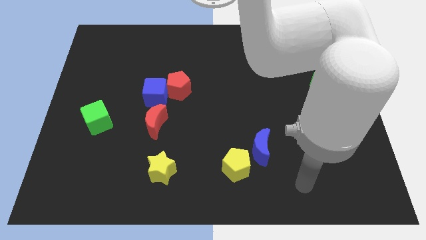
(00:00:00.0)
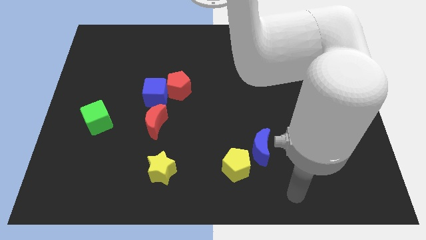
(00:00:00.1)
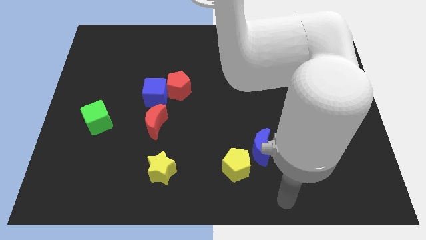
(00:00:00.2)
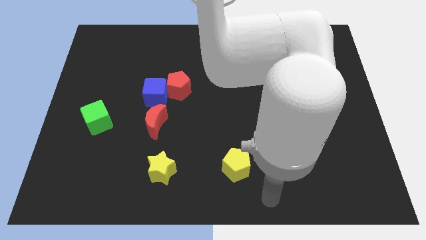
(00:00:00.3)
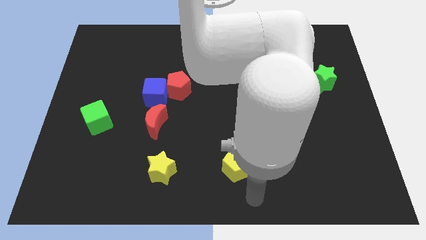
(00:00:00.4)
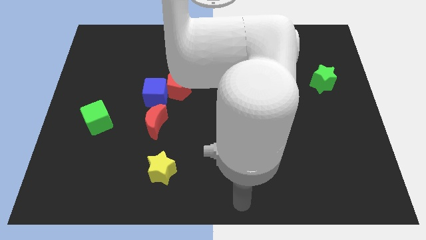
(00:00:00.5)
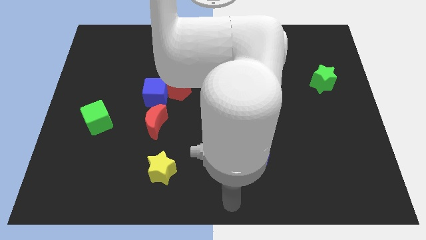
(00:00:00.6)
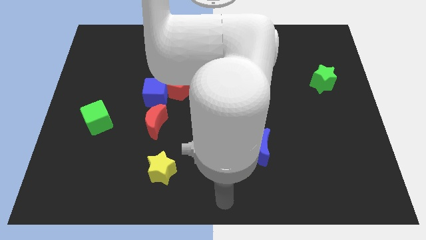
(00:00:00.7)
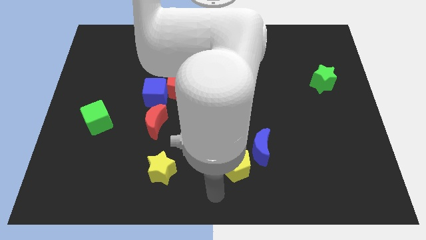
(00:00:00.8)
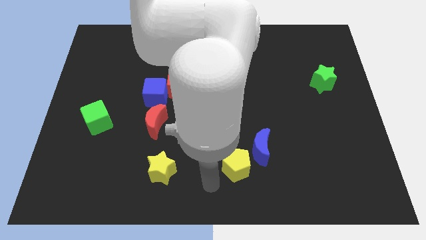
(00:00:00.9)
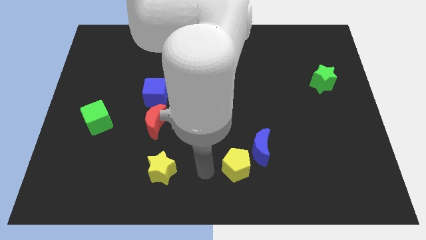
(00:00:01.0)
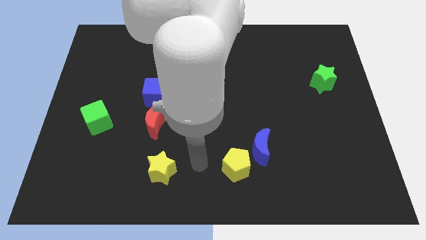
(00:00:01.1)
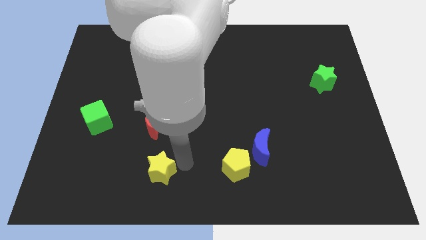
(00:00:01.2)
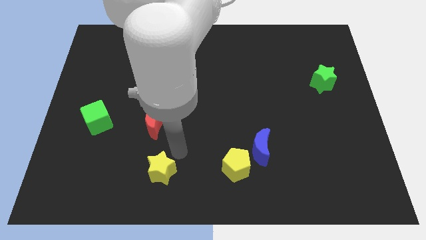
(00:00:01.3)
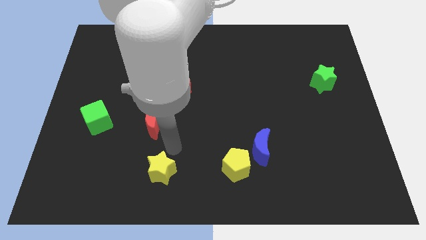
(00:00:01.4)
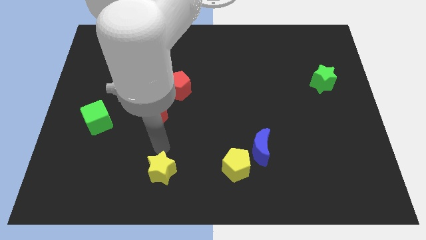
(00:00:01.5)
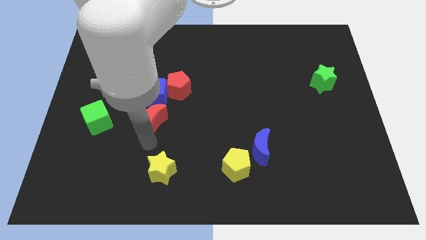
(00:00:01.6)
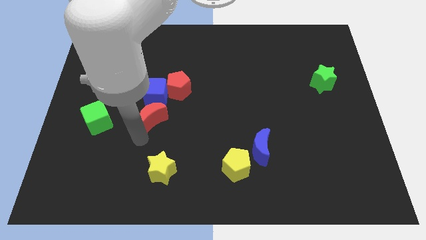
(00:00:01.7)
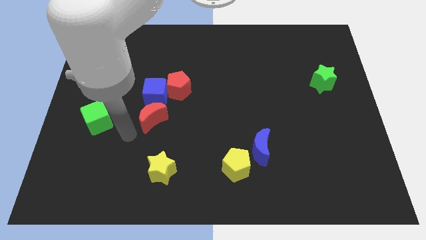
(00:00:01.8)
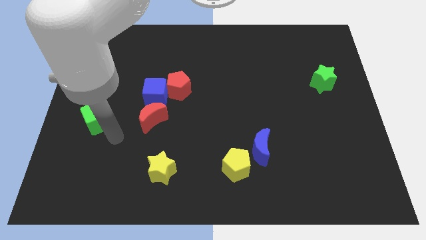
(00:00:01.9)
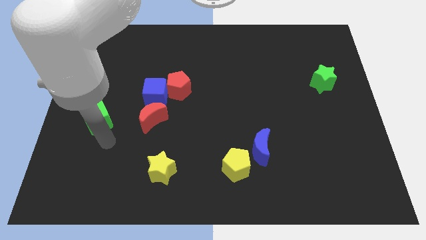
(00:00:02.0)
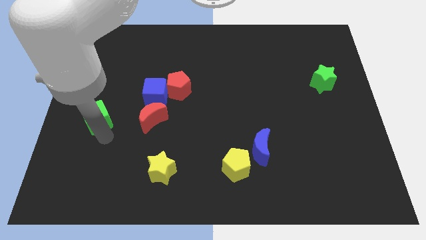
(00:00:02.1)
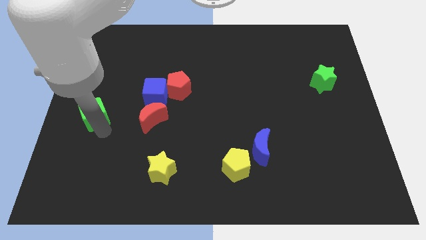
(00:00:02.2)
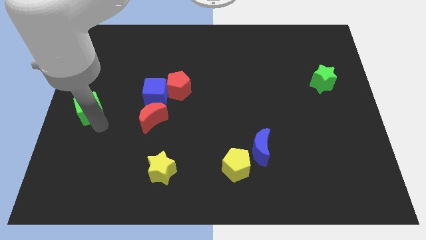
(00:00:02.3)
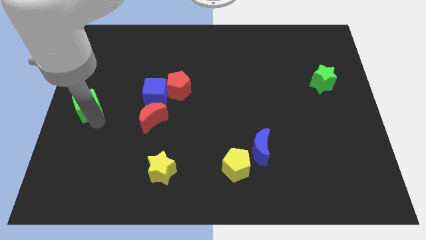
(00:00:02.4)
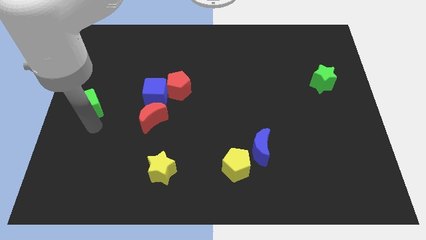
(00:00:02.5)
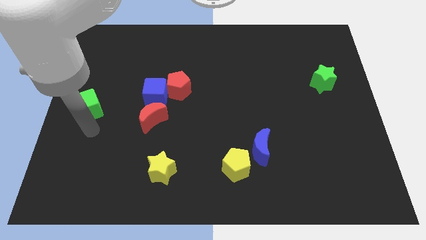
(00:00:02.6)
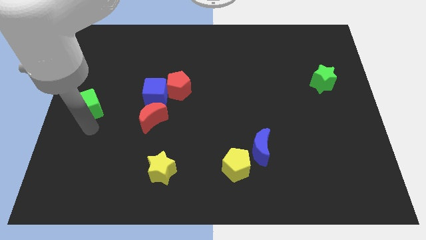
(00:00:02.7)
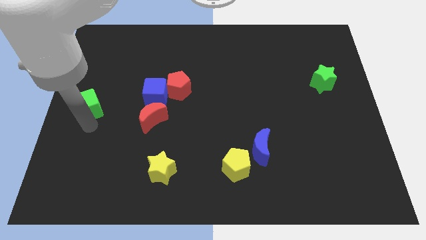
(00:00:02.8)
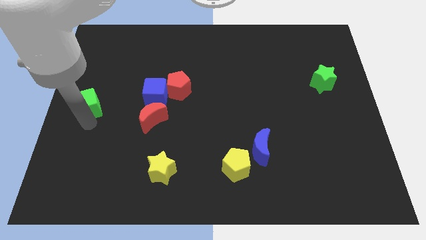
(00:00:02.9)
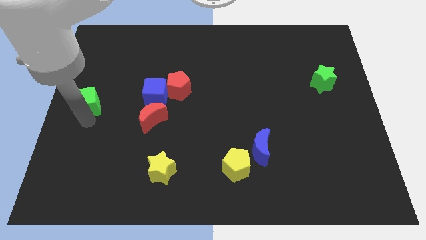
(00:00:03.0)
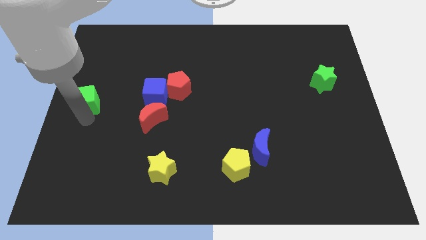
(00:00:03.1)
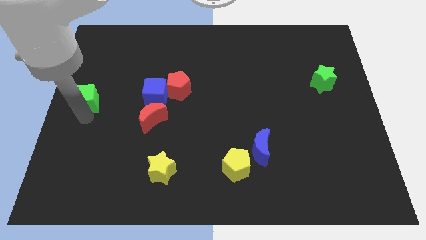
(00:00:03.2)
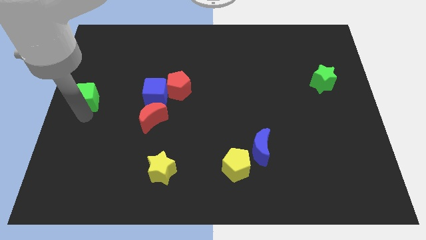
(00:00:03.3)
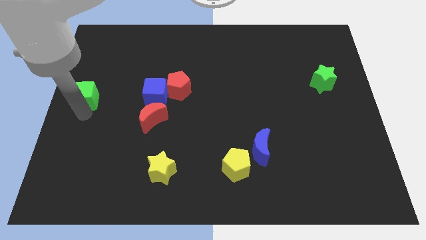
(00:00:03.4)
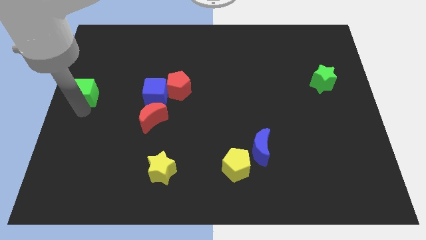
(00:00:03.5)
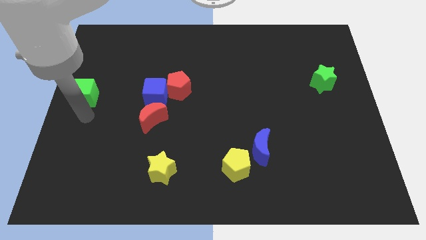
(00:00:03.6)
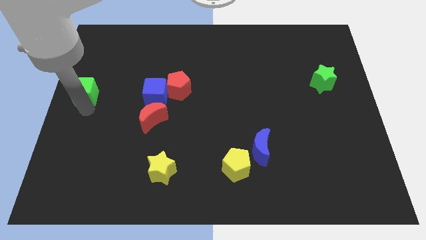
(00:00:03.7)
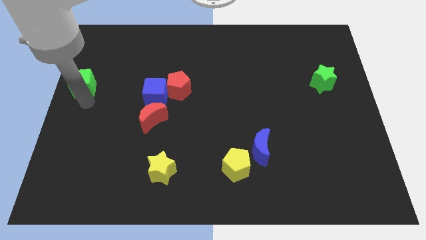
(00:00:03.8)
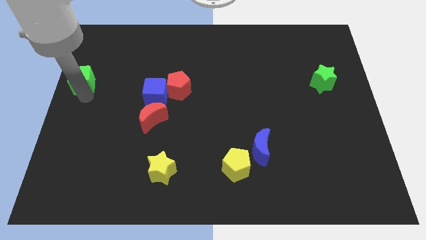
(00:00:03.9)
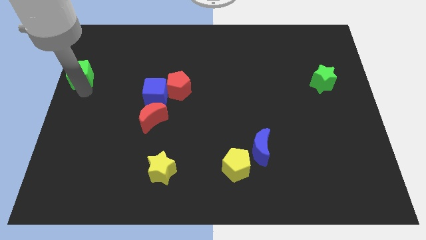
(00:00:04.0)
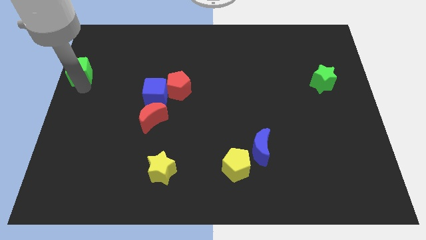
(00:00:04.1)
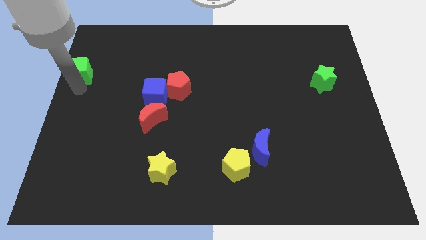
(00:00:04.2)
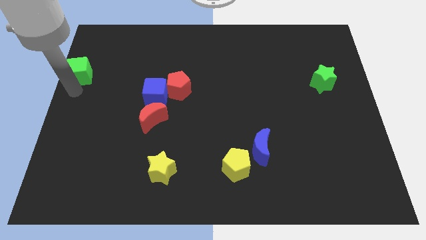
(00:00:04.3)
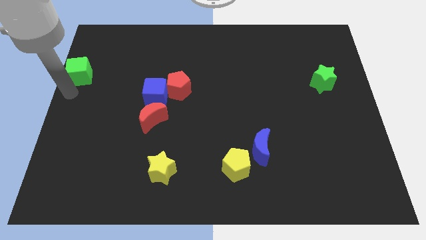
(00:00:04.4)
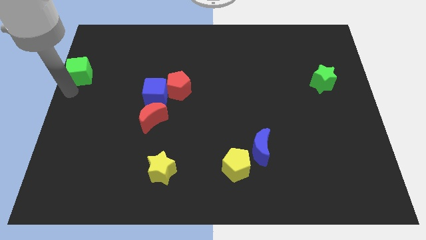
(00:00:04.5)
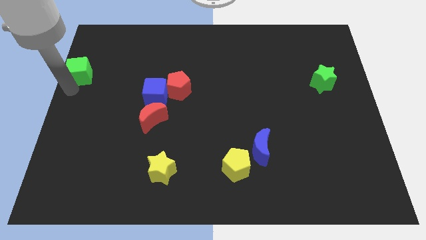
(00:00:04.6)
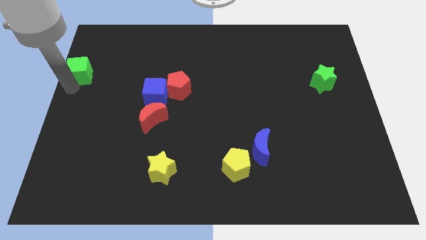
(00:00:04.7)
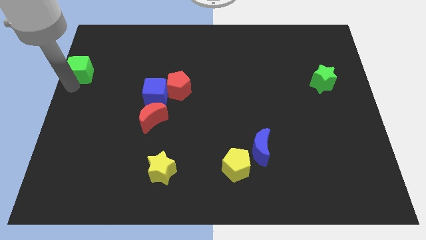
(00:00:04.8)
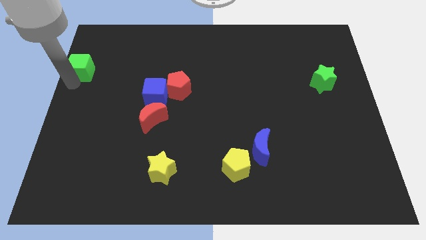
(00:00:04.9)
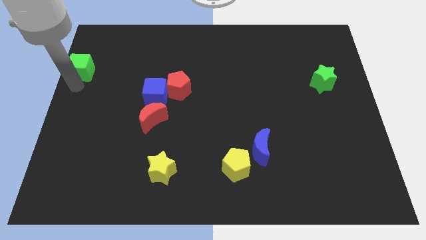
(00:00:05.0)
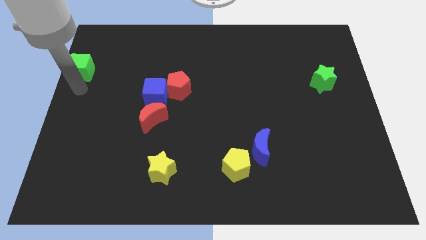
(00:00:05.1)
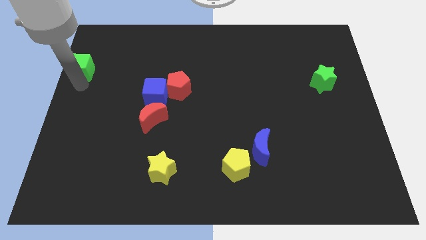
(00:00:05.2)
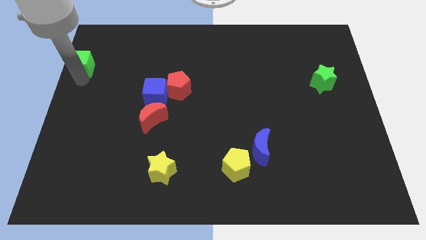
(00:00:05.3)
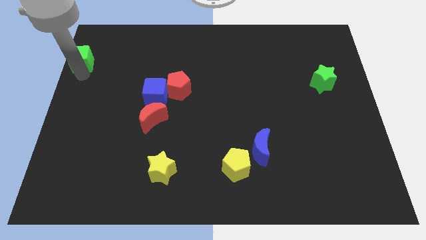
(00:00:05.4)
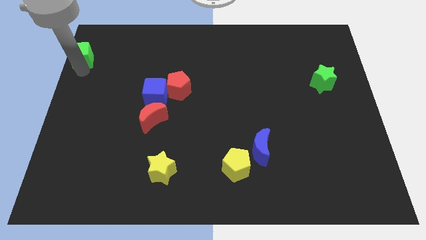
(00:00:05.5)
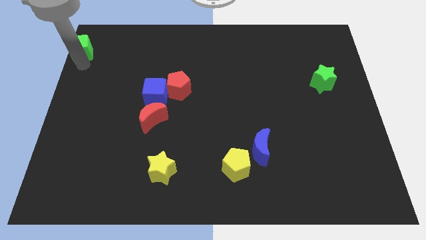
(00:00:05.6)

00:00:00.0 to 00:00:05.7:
slide the green cube to the upper left corner
